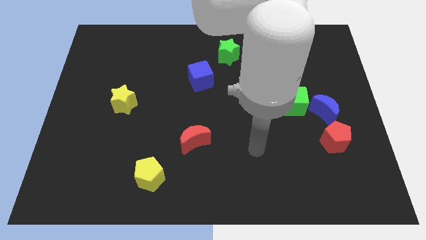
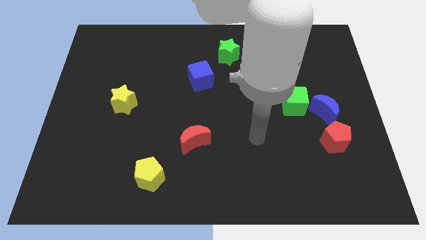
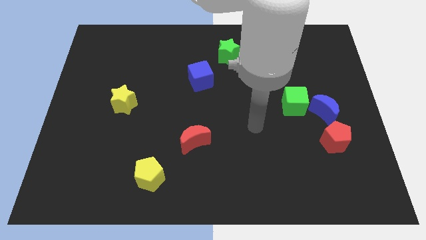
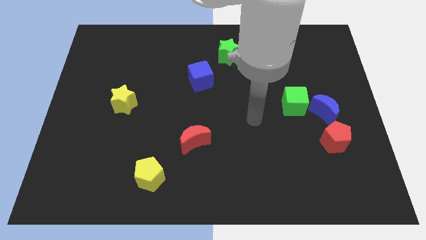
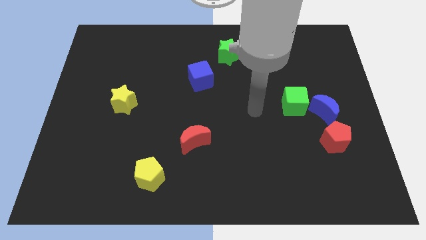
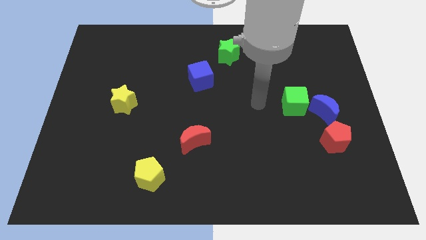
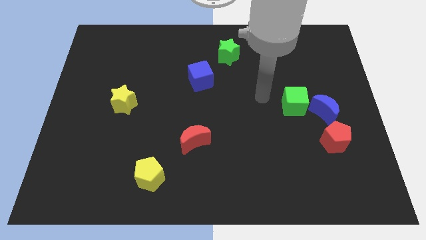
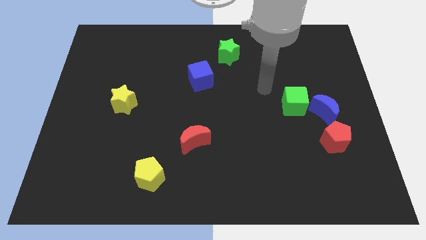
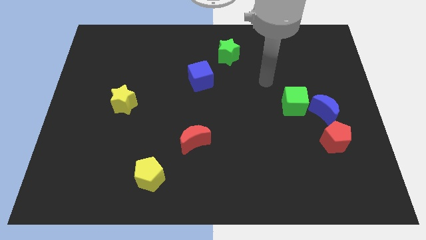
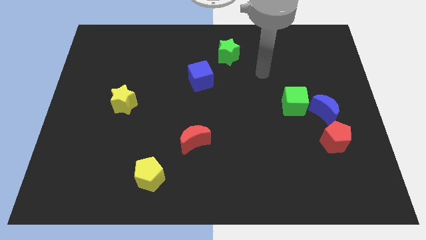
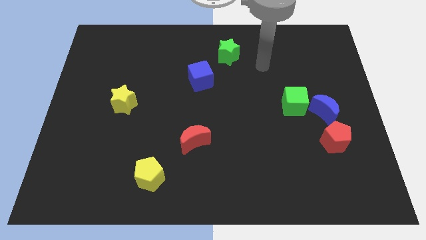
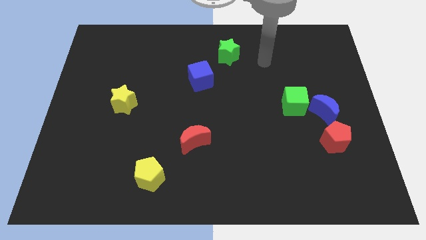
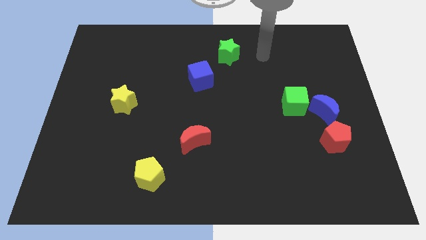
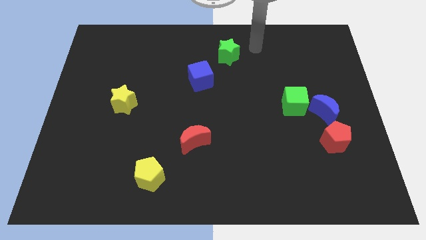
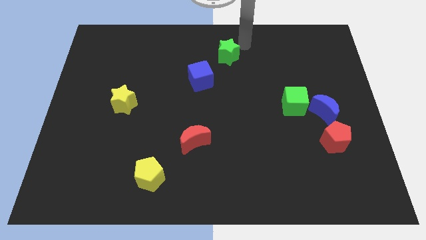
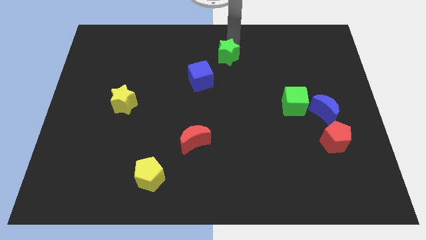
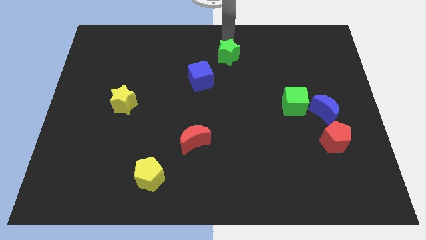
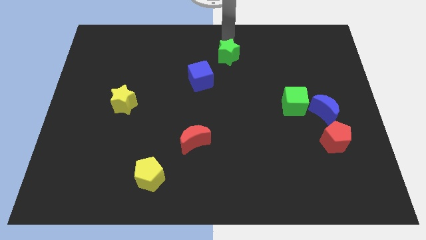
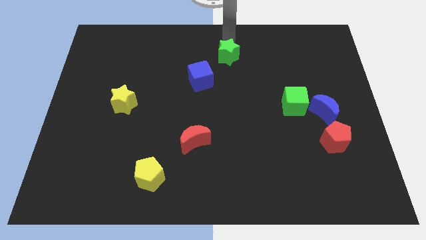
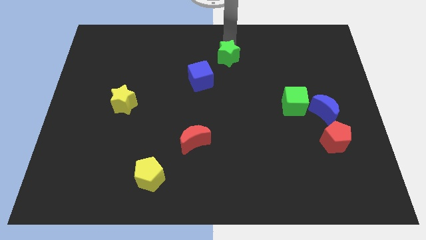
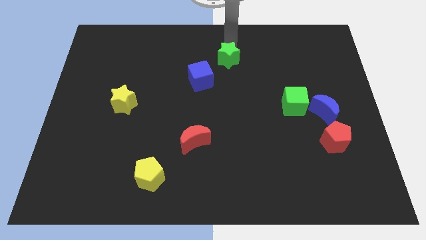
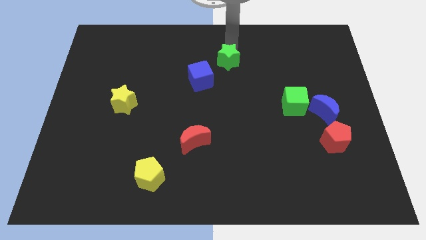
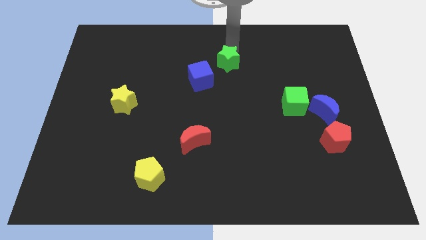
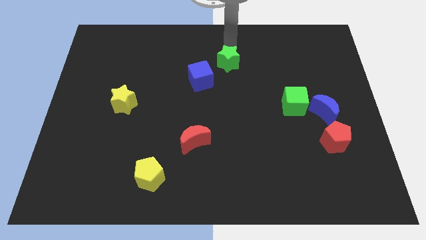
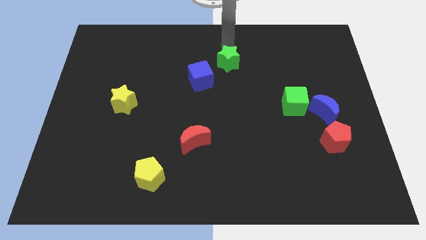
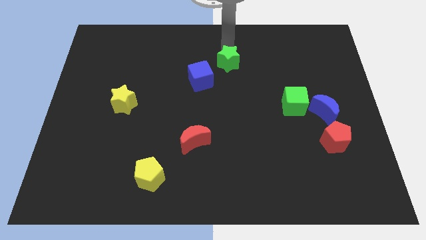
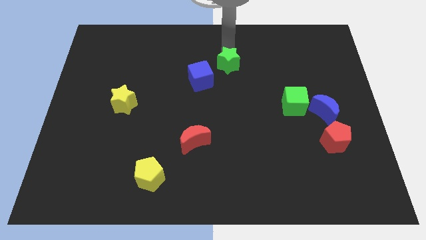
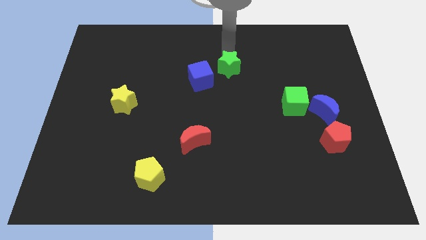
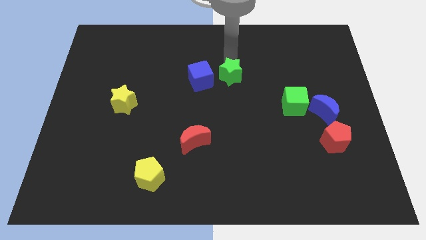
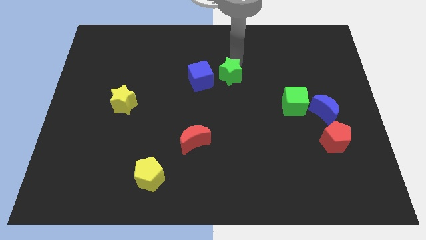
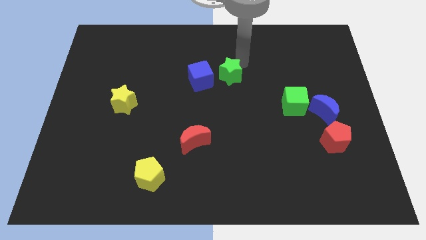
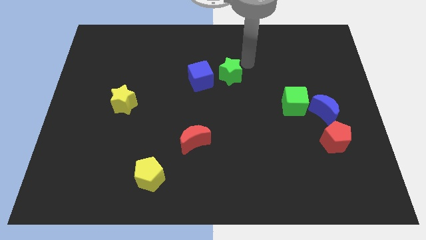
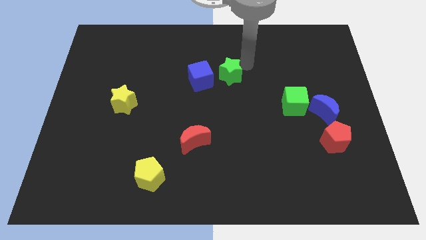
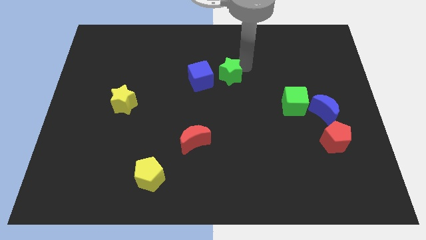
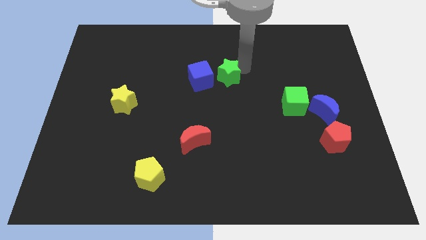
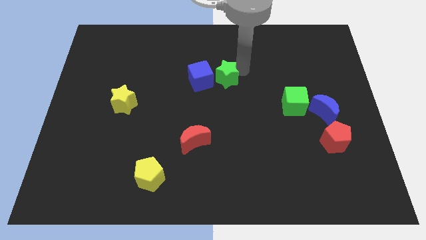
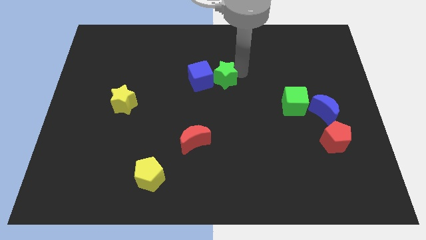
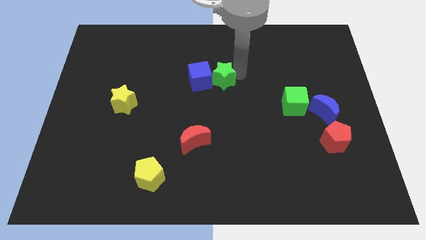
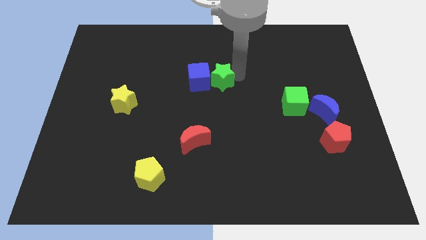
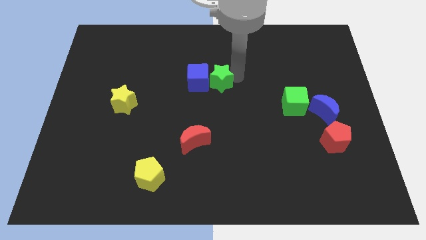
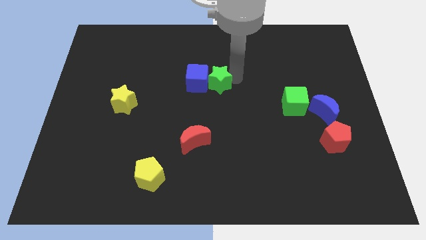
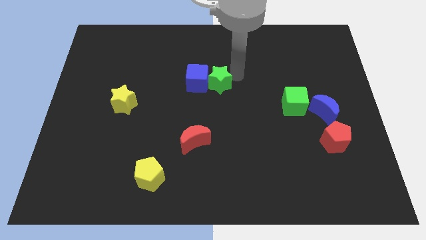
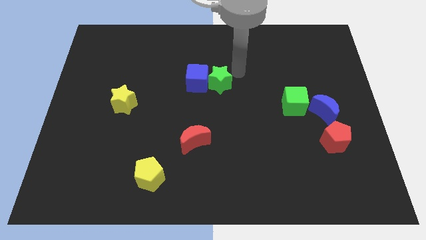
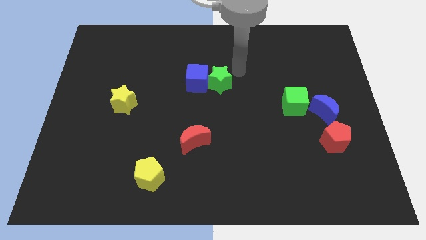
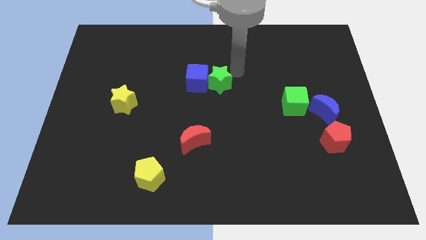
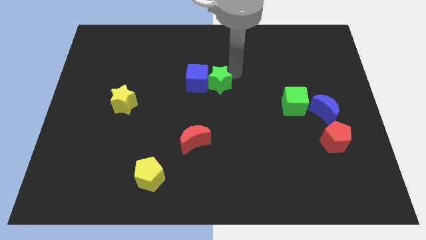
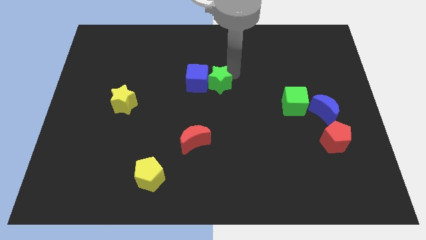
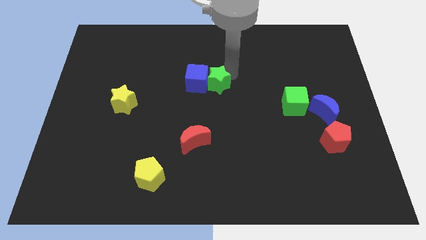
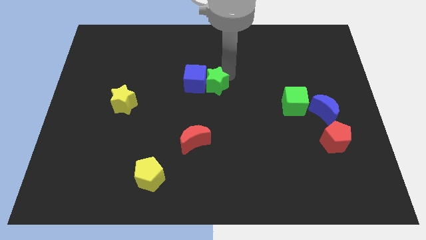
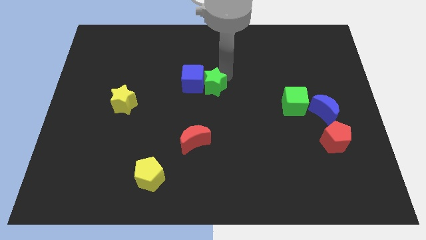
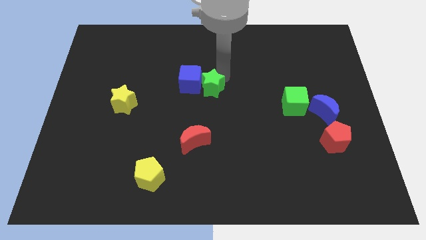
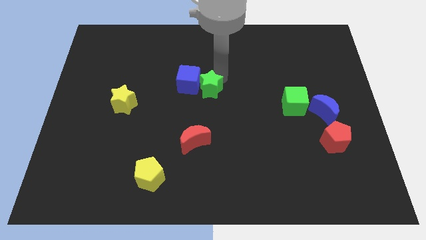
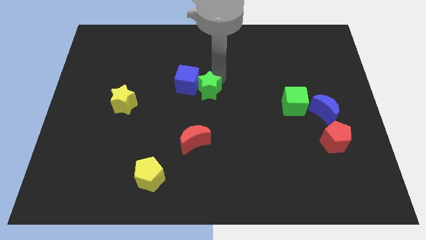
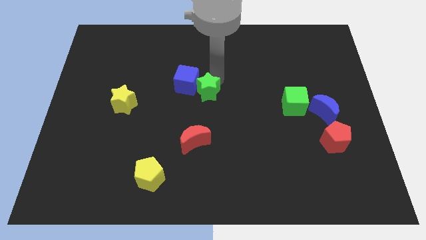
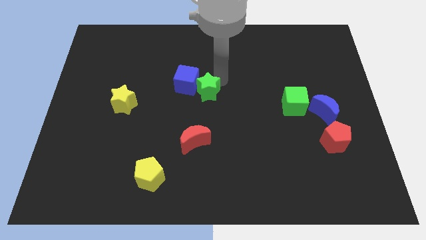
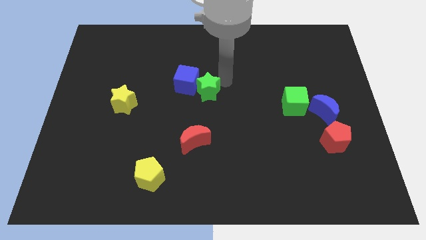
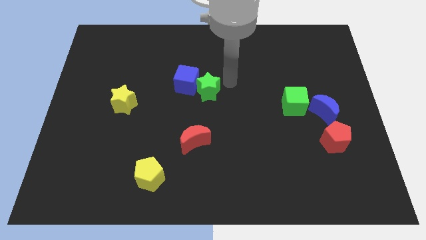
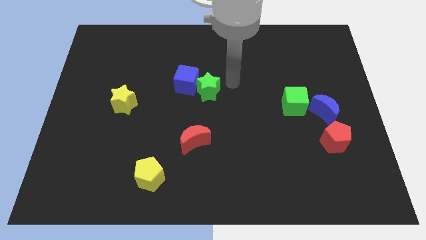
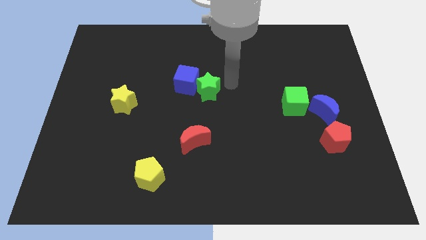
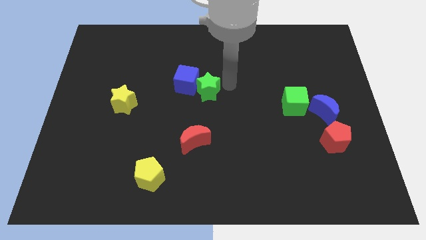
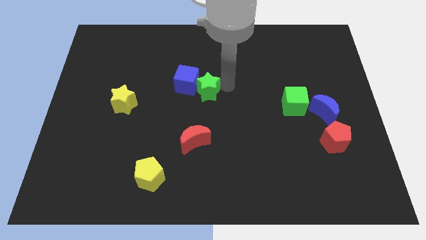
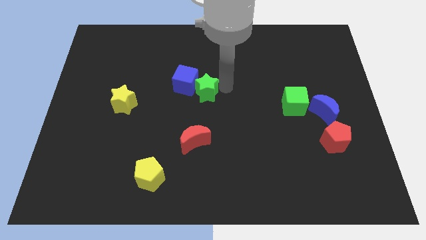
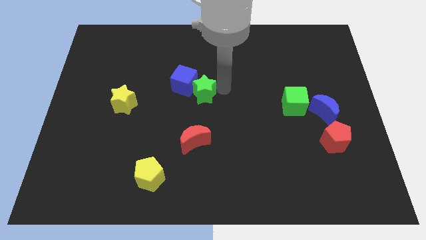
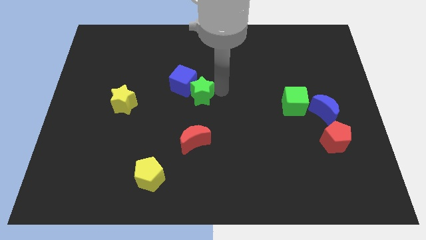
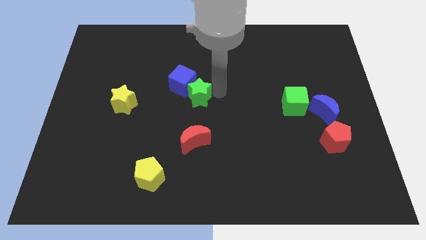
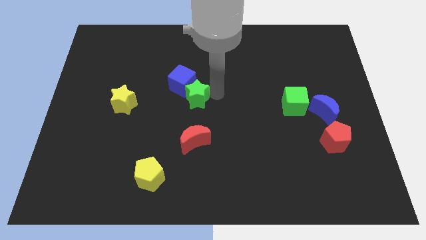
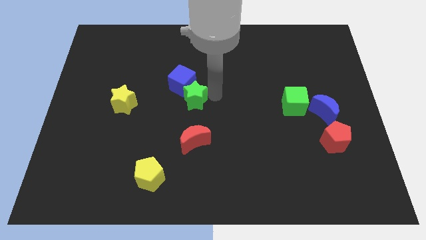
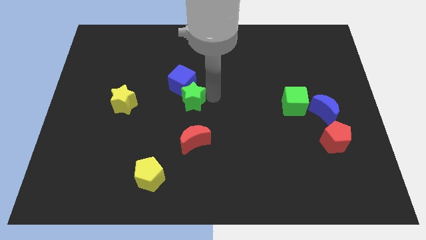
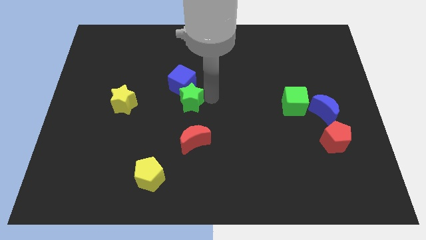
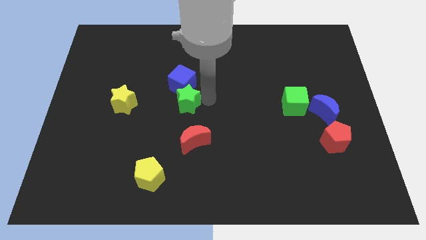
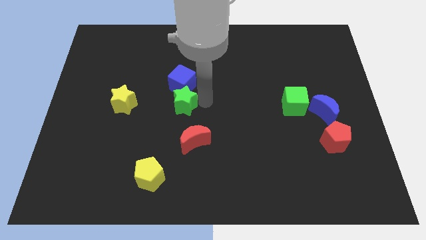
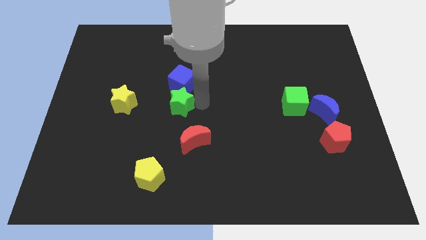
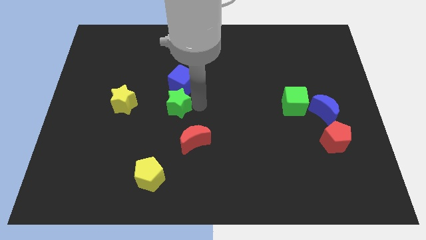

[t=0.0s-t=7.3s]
push the green star down and then left

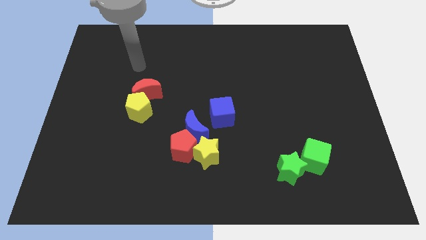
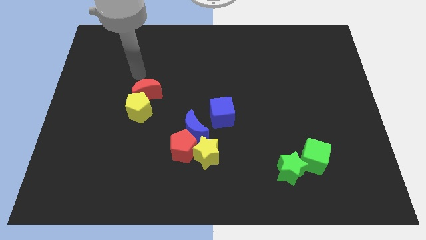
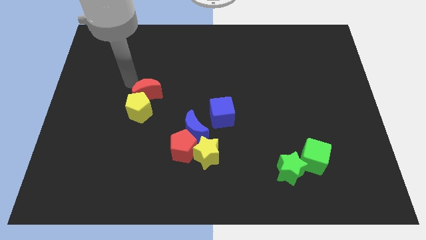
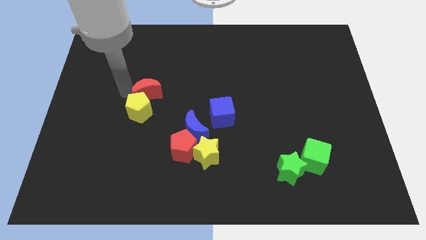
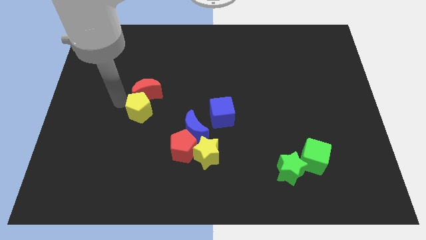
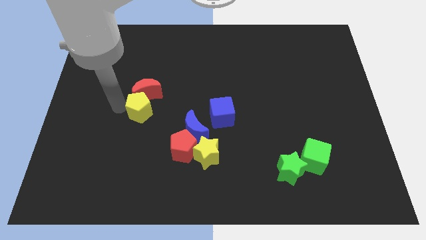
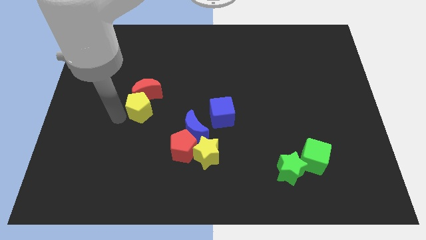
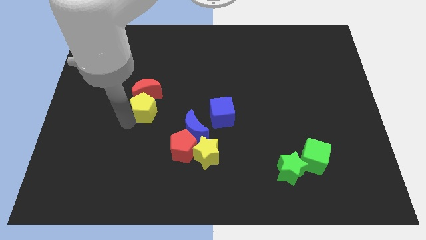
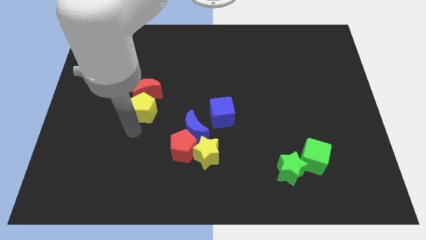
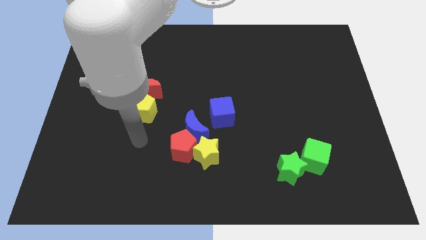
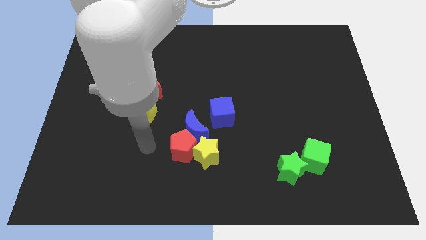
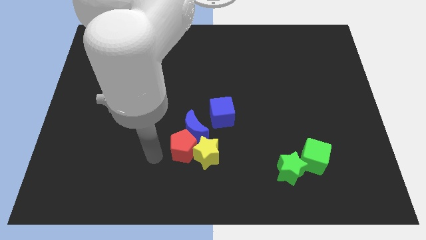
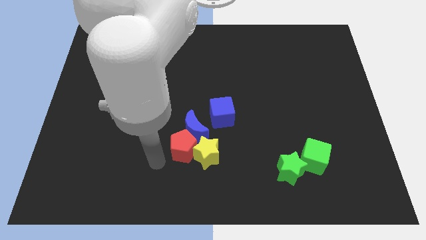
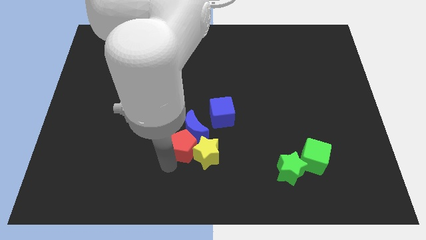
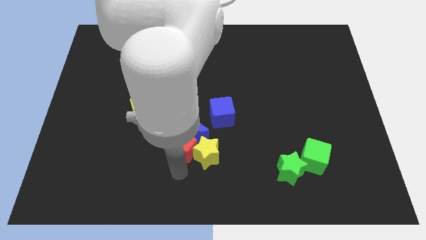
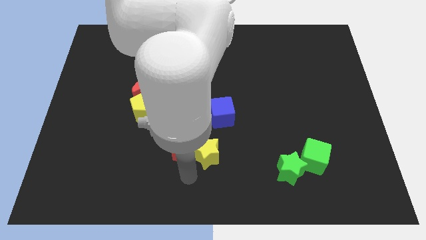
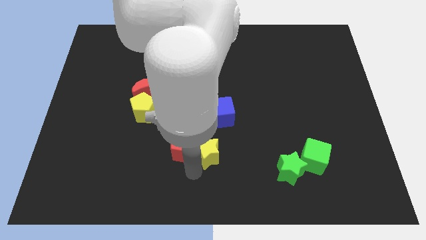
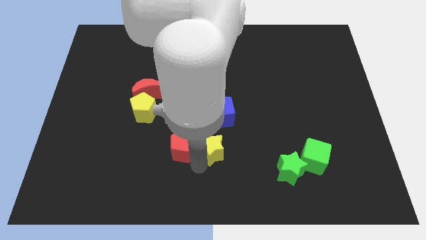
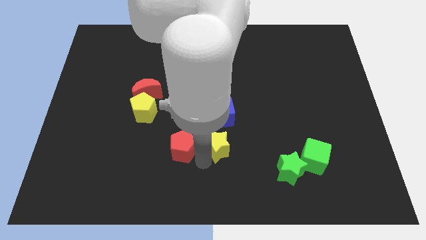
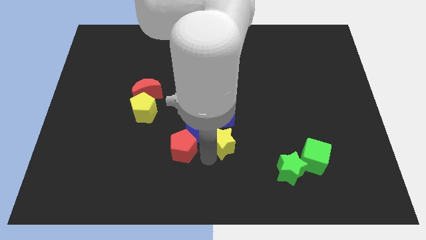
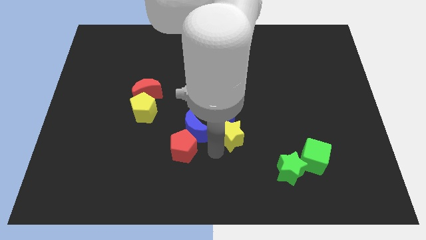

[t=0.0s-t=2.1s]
slightly push the yellow star up and then right
